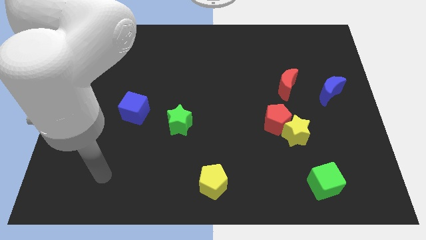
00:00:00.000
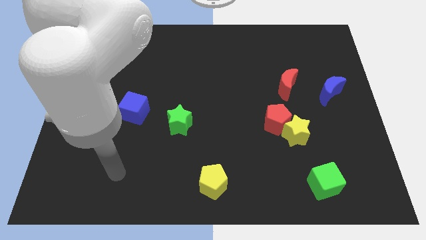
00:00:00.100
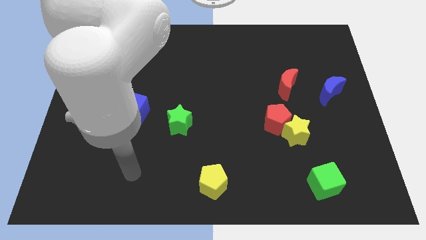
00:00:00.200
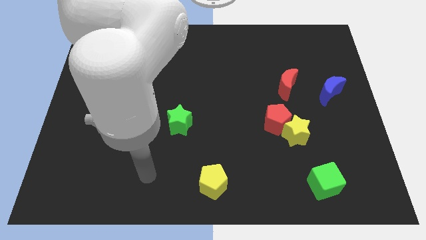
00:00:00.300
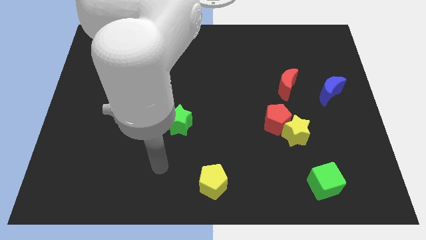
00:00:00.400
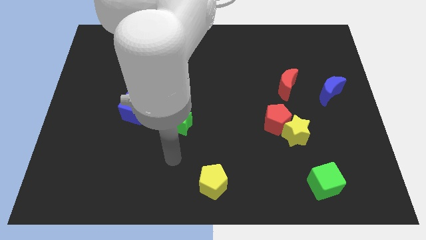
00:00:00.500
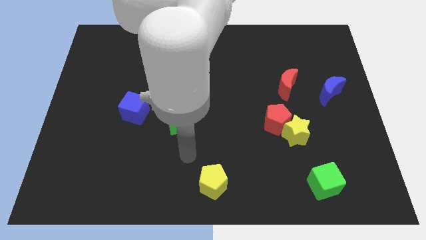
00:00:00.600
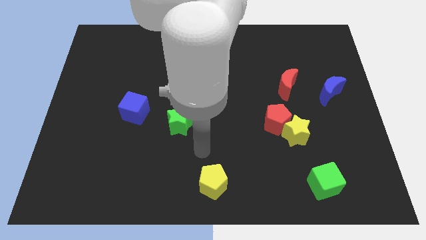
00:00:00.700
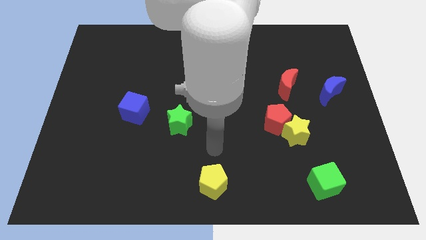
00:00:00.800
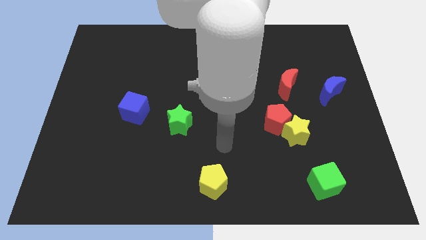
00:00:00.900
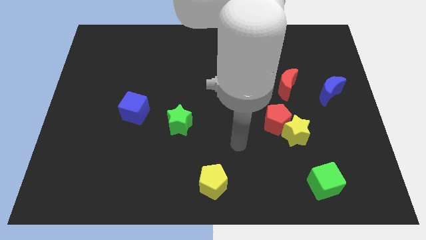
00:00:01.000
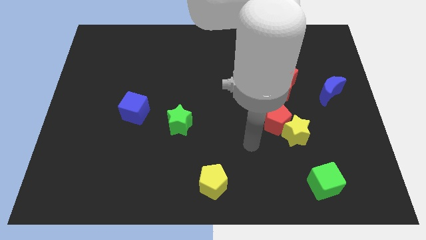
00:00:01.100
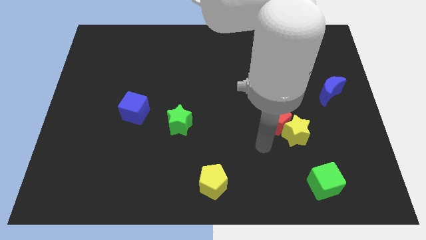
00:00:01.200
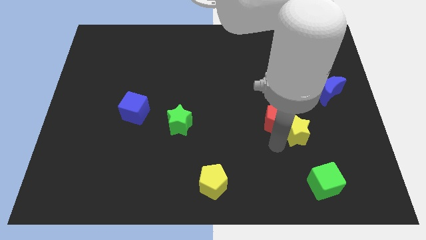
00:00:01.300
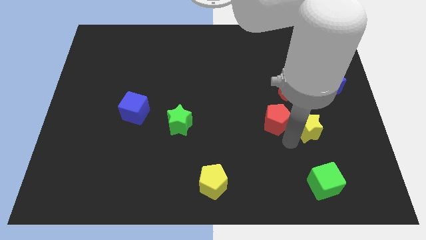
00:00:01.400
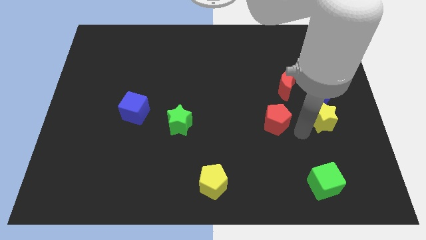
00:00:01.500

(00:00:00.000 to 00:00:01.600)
pull the red pentagon apart from the yellow star

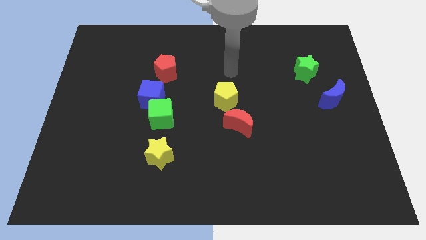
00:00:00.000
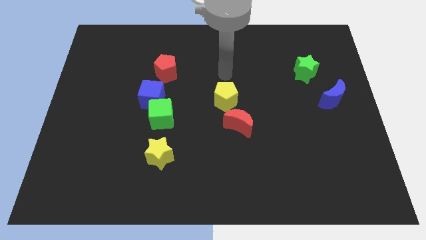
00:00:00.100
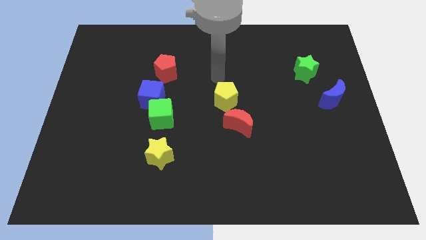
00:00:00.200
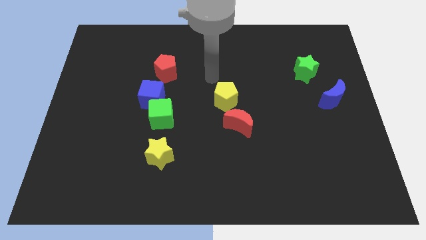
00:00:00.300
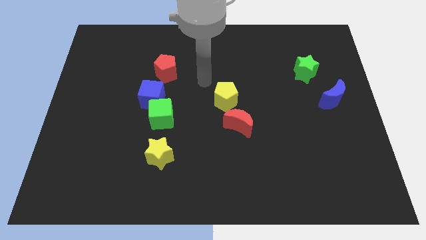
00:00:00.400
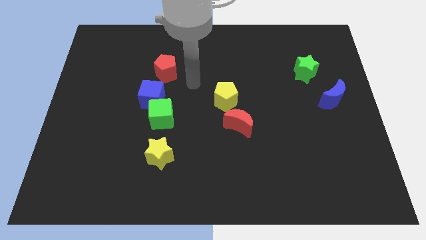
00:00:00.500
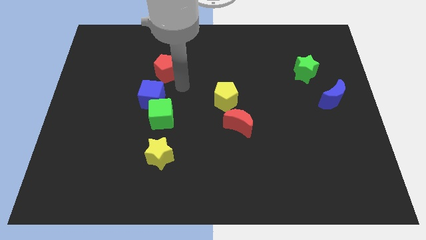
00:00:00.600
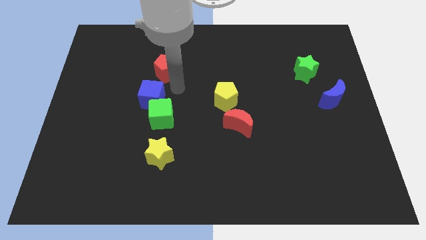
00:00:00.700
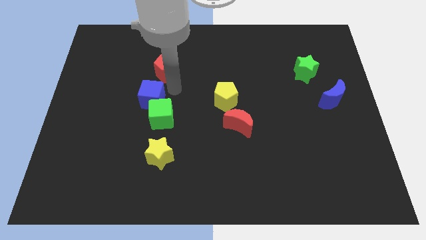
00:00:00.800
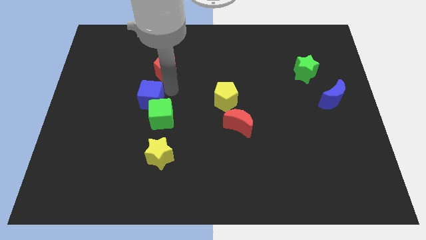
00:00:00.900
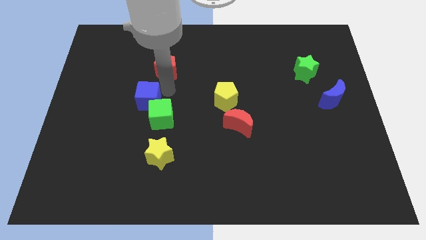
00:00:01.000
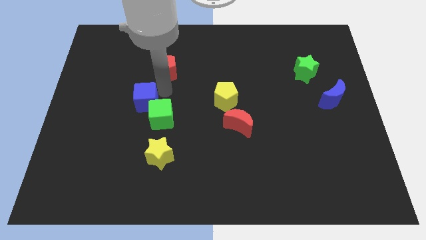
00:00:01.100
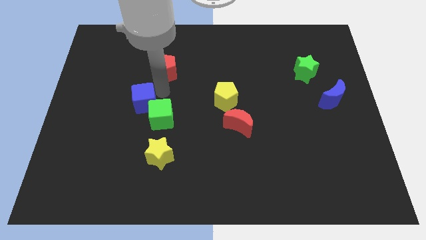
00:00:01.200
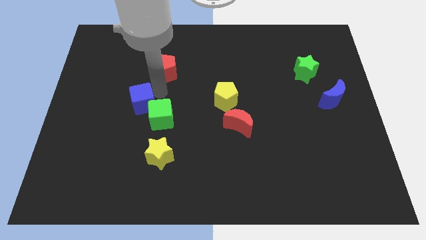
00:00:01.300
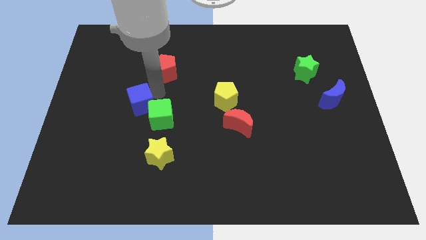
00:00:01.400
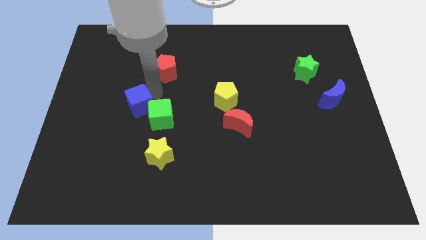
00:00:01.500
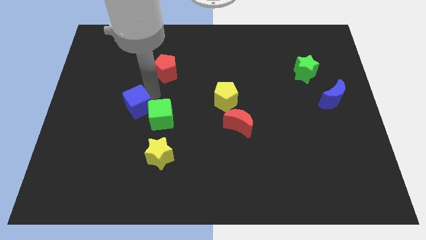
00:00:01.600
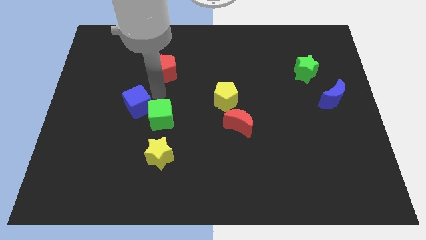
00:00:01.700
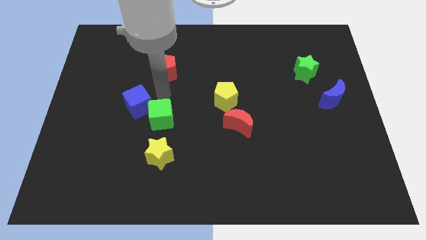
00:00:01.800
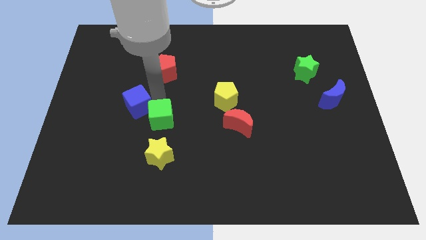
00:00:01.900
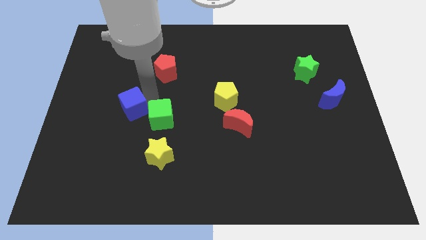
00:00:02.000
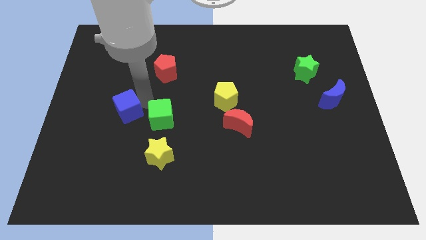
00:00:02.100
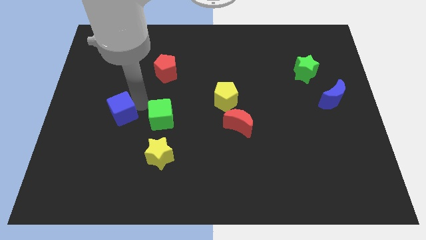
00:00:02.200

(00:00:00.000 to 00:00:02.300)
separate the blue cube from the green cube and red pentagon

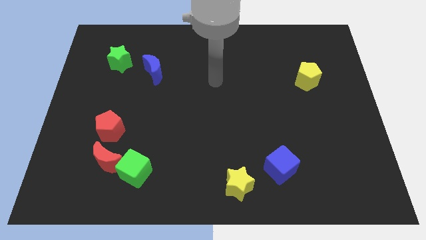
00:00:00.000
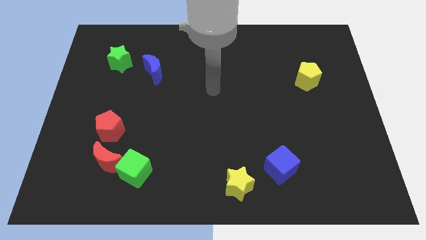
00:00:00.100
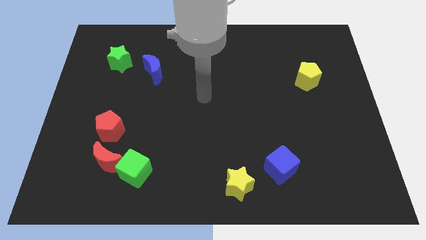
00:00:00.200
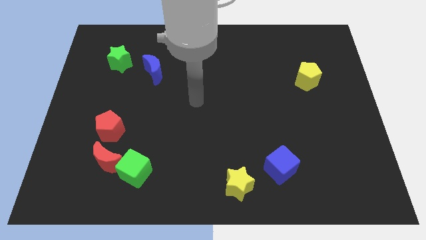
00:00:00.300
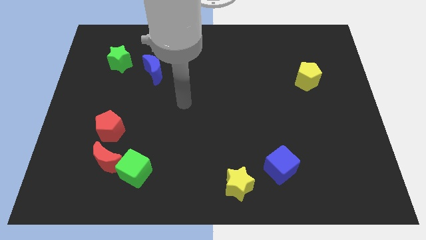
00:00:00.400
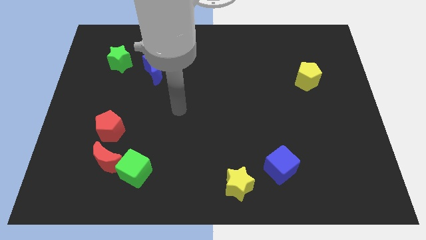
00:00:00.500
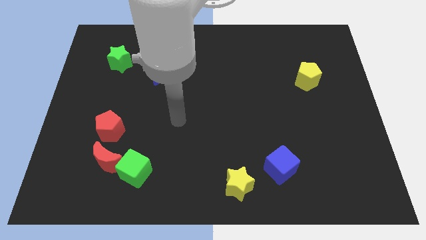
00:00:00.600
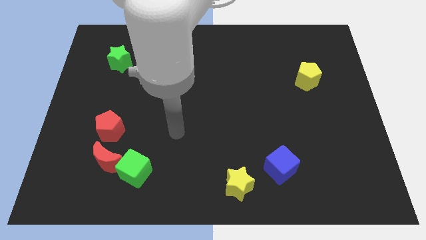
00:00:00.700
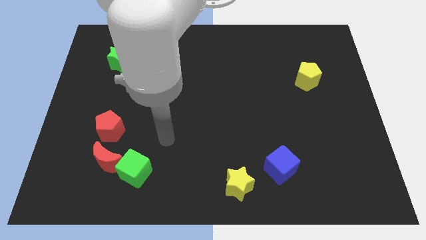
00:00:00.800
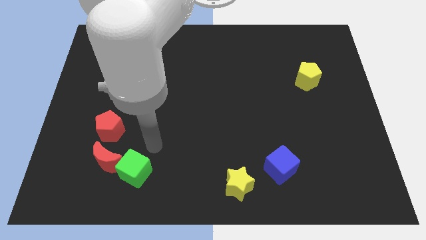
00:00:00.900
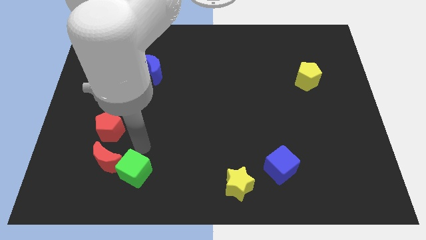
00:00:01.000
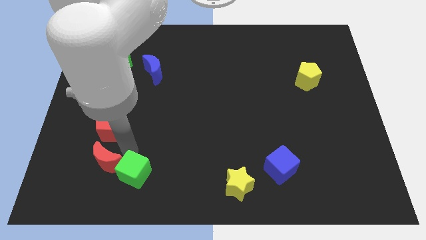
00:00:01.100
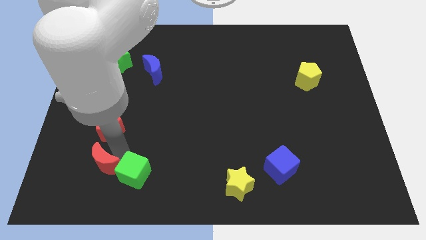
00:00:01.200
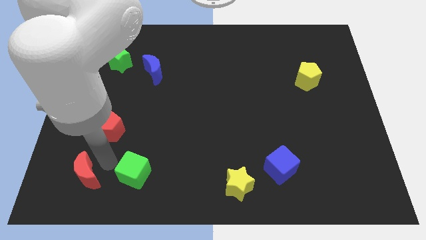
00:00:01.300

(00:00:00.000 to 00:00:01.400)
separate the green cube from the red moon

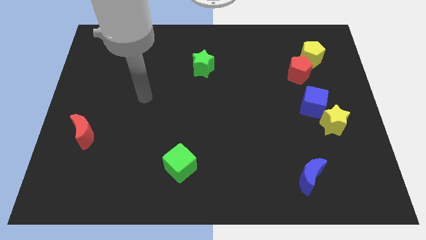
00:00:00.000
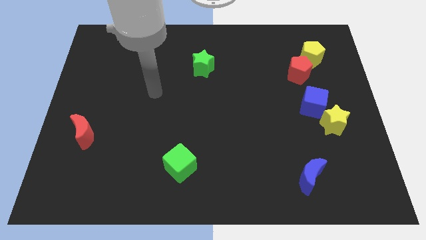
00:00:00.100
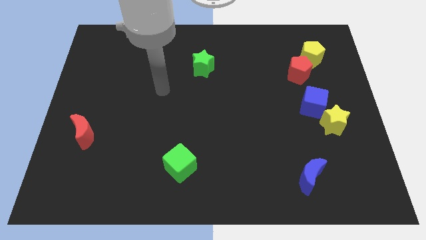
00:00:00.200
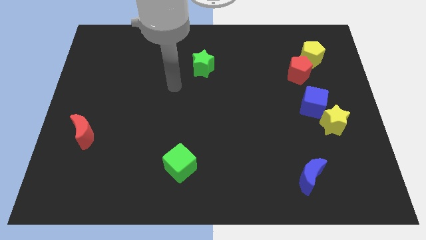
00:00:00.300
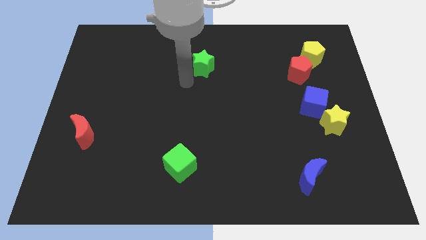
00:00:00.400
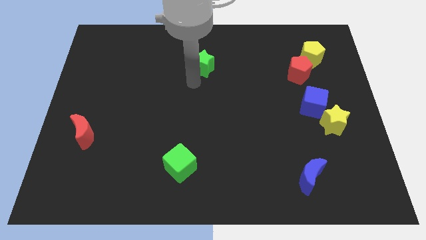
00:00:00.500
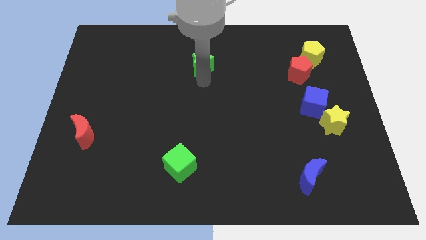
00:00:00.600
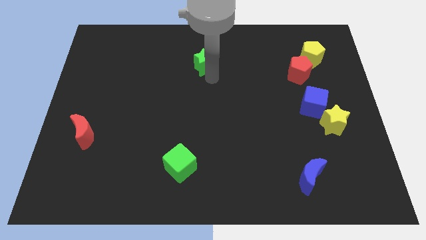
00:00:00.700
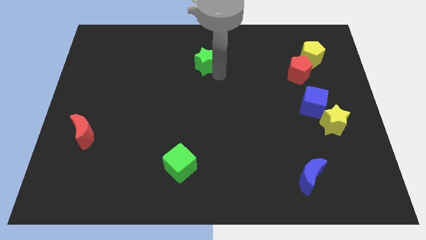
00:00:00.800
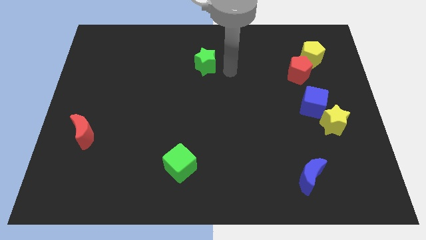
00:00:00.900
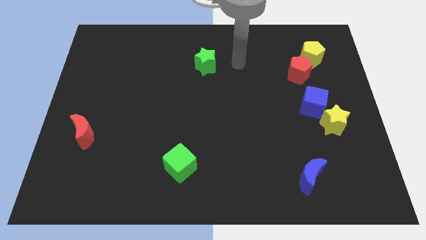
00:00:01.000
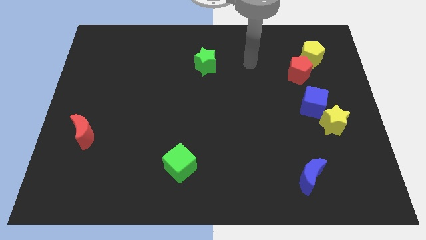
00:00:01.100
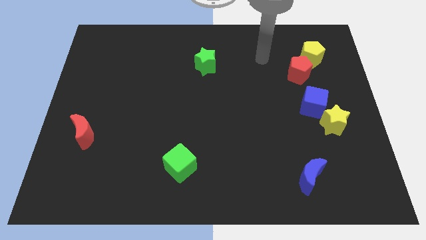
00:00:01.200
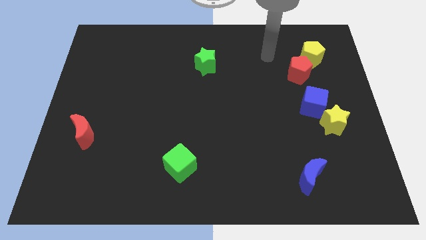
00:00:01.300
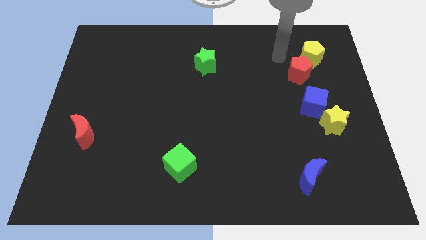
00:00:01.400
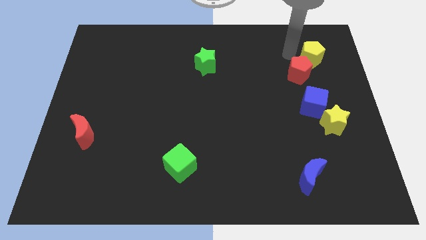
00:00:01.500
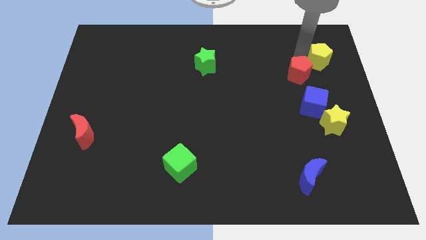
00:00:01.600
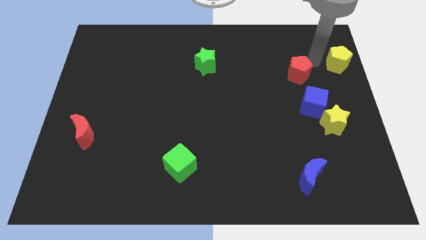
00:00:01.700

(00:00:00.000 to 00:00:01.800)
move the red pentagon away from the yellow pentagon

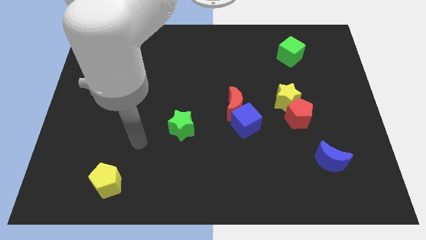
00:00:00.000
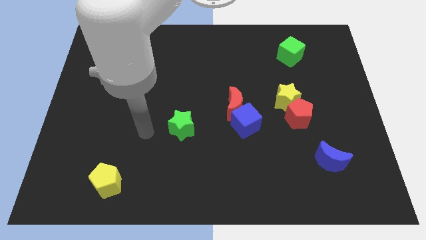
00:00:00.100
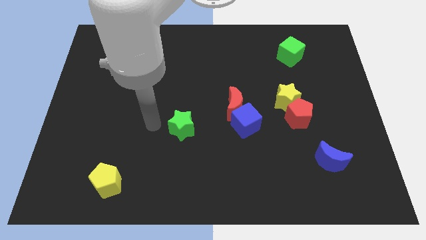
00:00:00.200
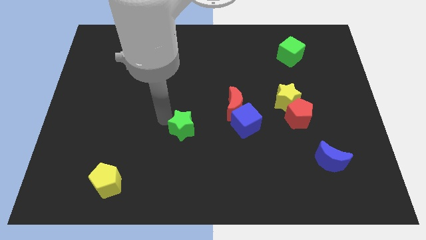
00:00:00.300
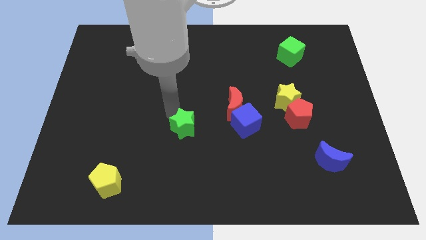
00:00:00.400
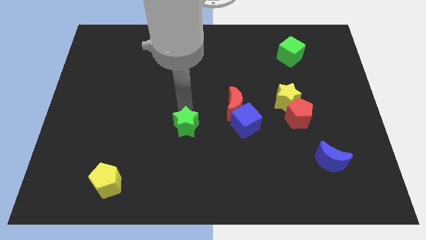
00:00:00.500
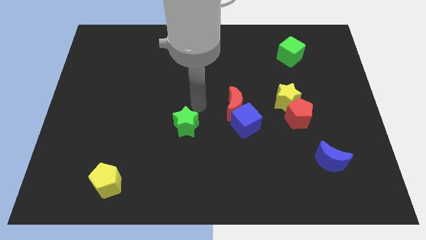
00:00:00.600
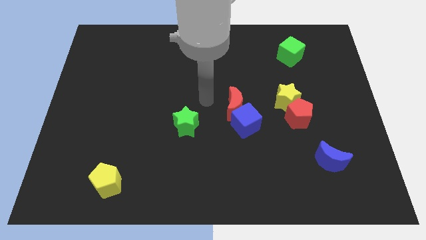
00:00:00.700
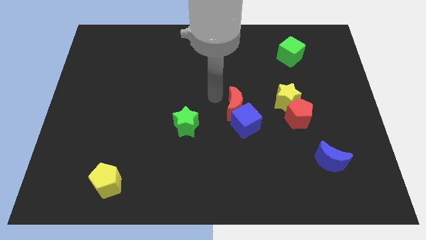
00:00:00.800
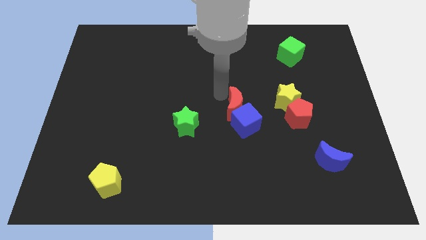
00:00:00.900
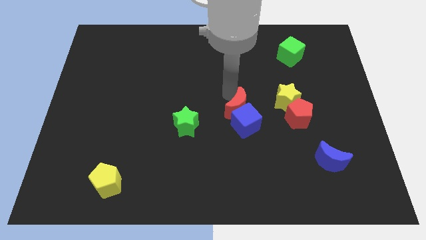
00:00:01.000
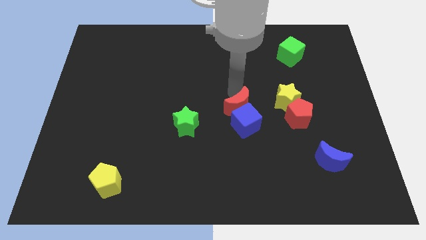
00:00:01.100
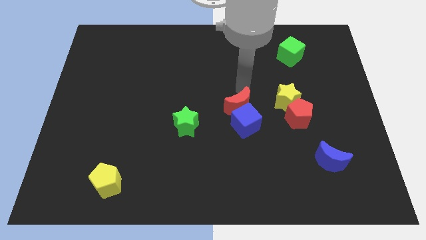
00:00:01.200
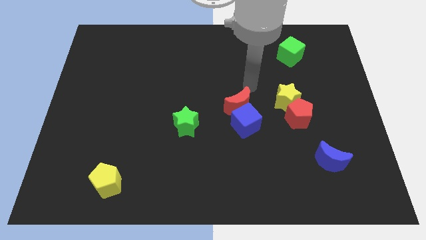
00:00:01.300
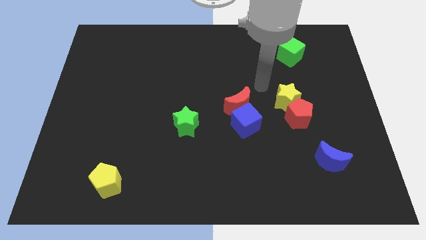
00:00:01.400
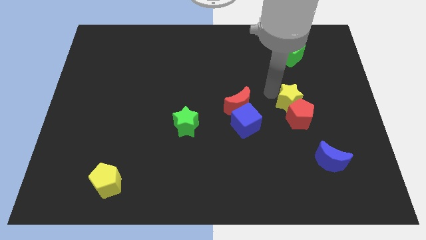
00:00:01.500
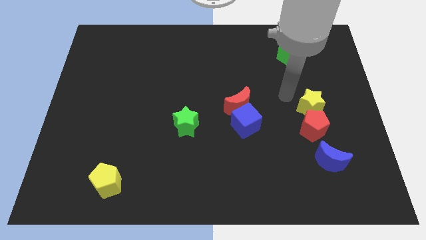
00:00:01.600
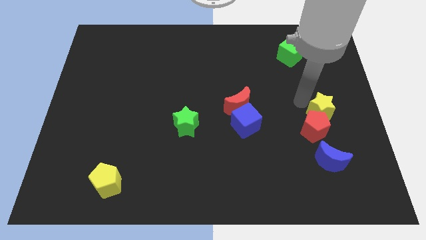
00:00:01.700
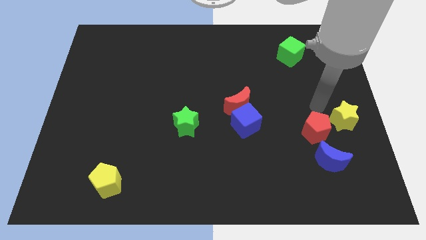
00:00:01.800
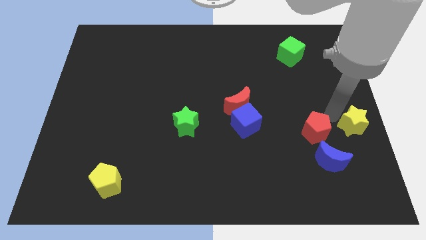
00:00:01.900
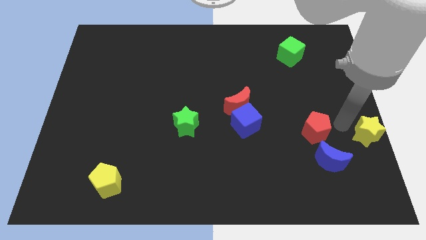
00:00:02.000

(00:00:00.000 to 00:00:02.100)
move the red pentagon away from the yellow star
